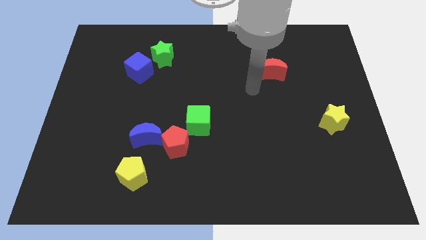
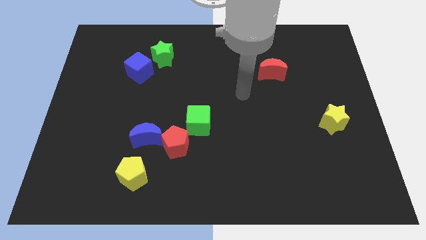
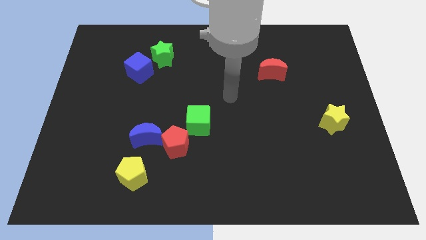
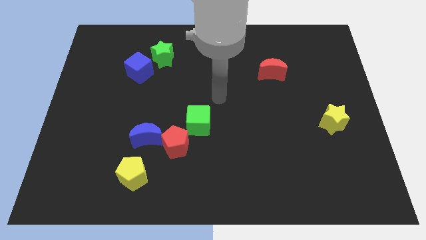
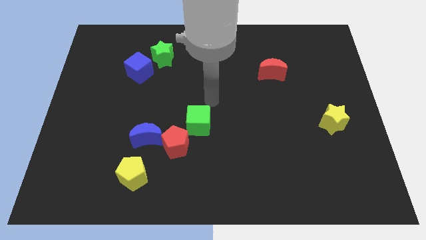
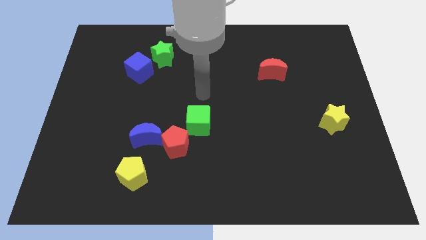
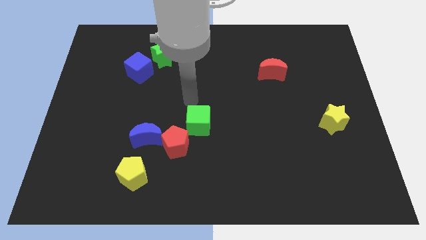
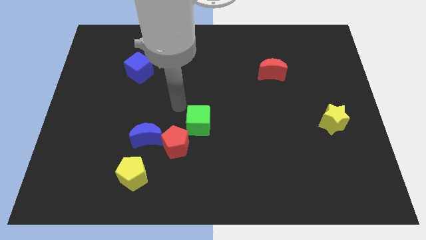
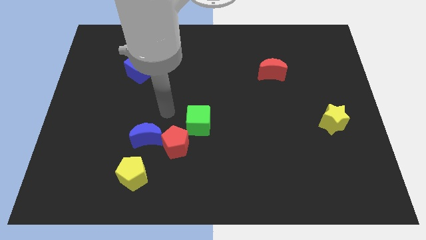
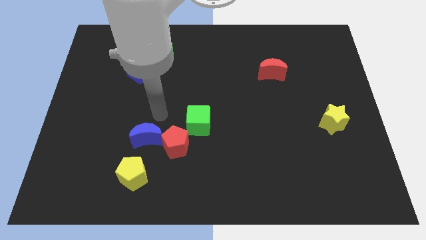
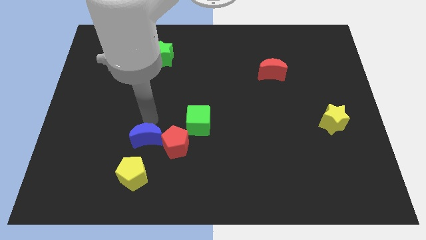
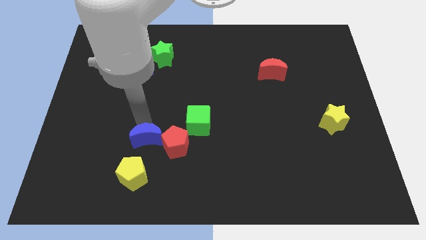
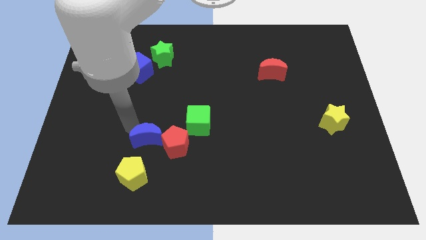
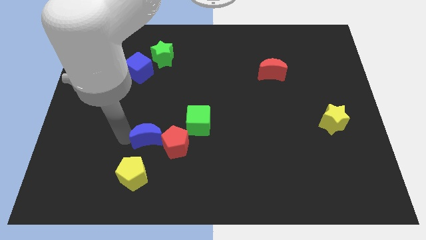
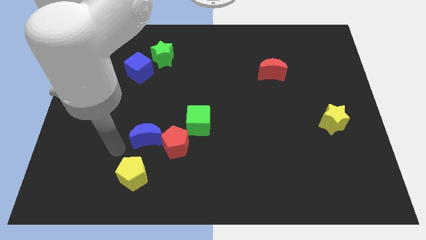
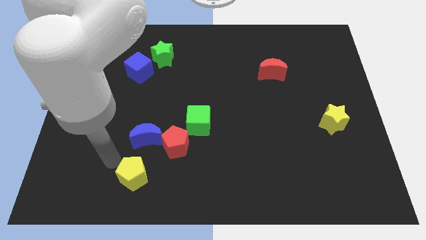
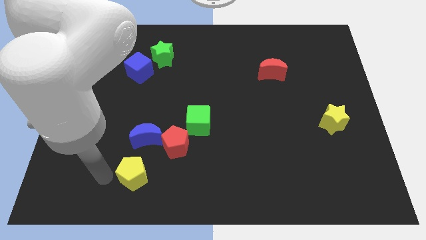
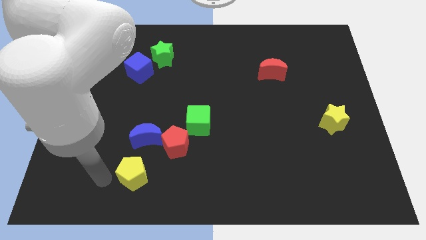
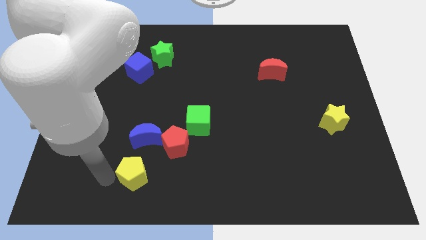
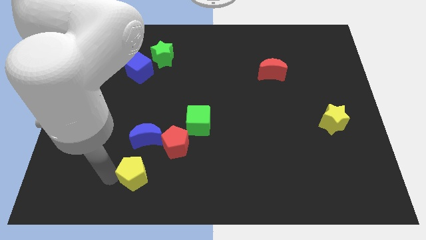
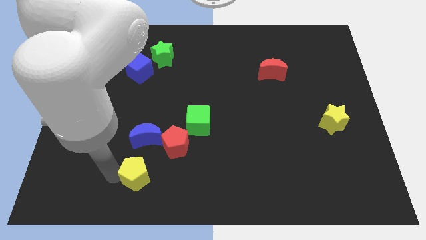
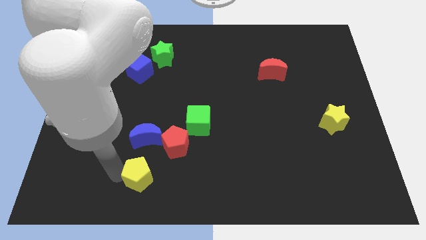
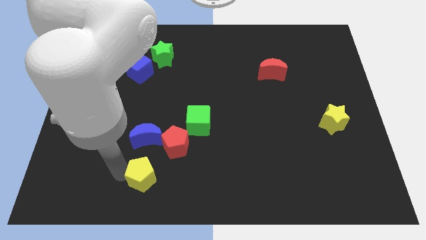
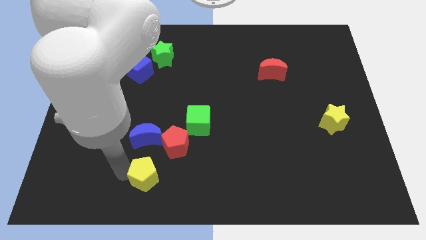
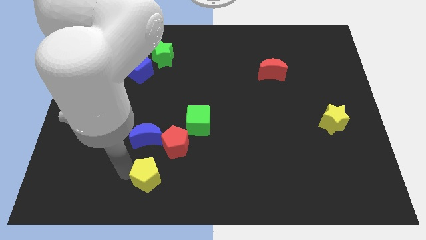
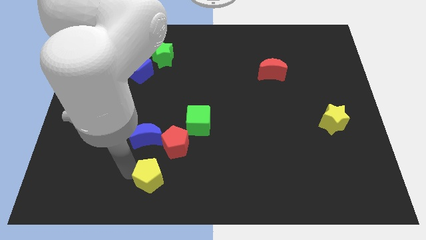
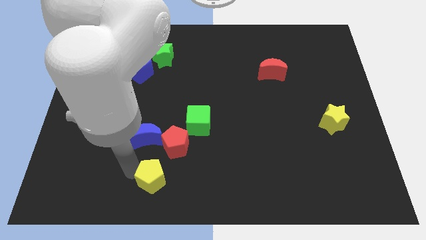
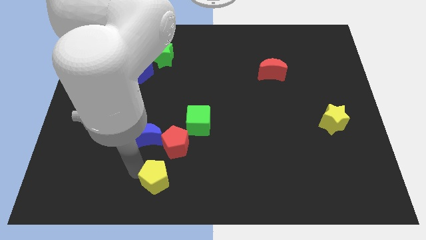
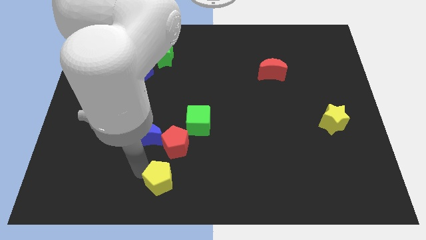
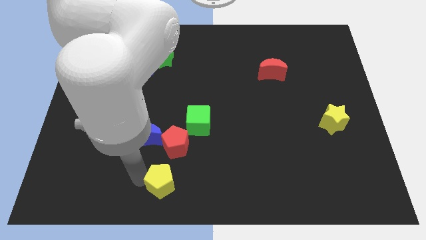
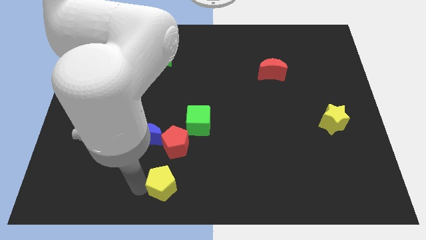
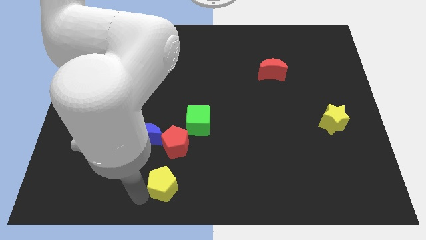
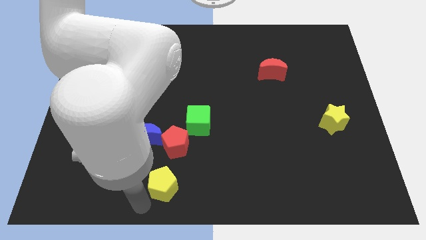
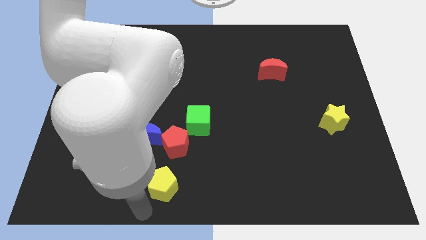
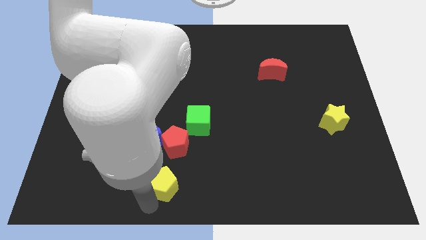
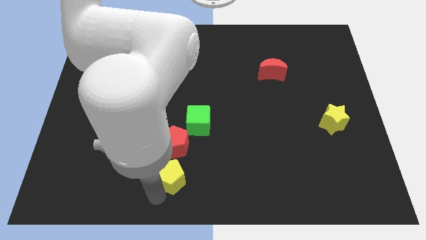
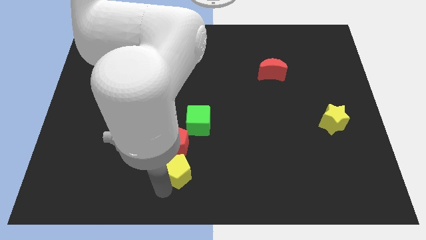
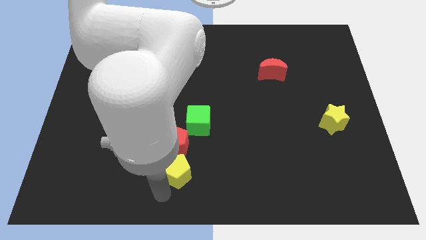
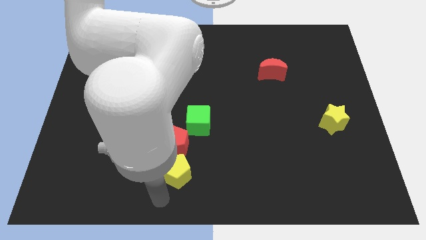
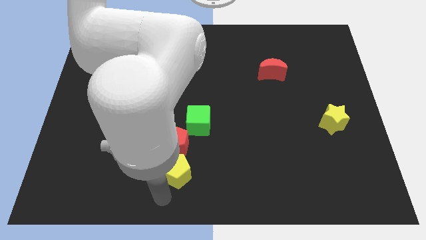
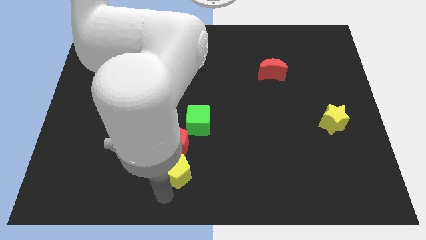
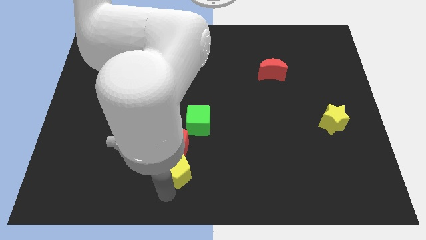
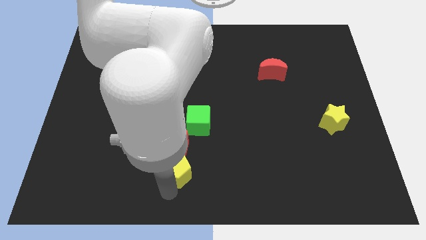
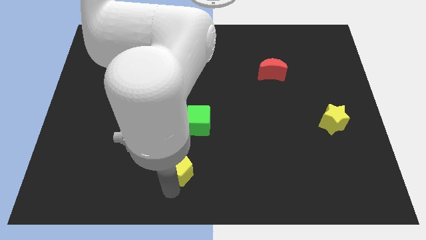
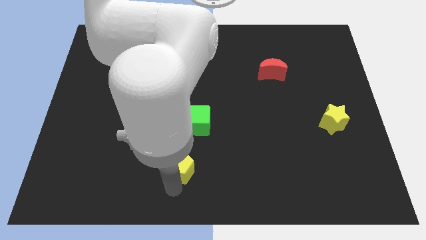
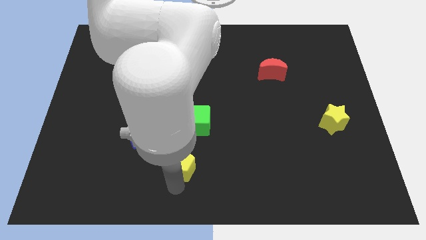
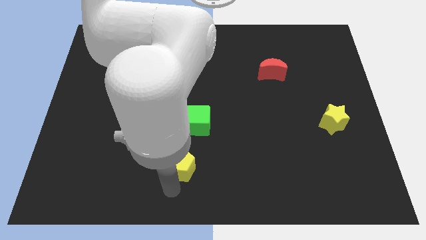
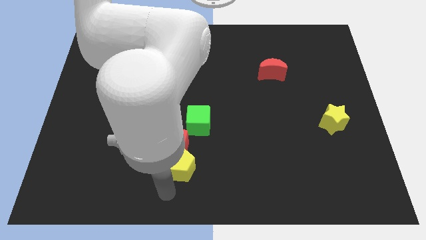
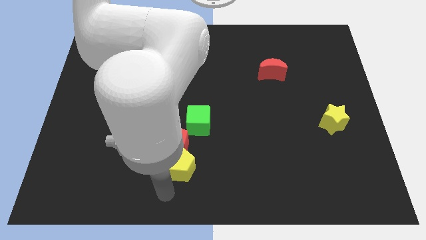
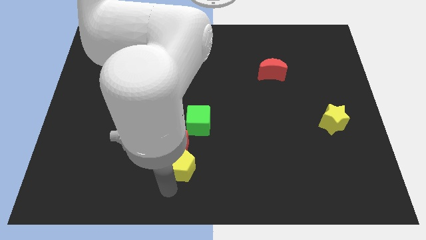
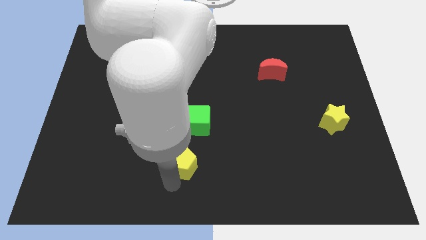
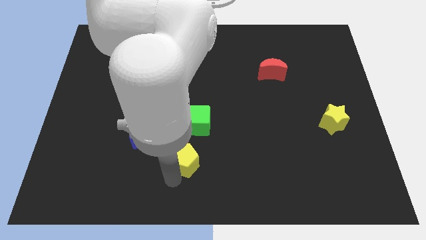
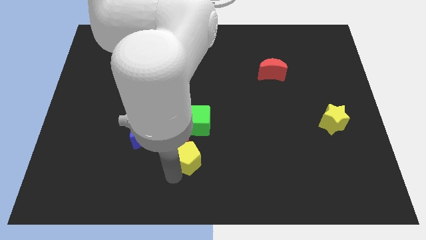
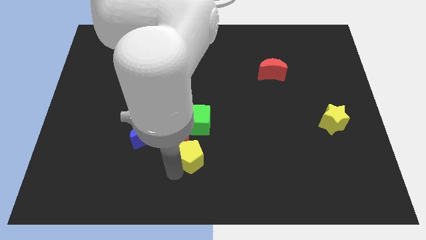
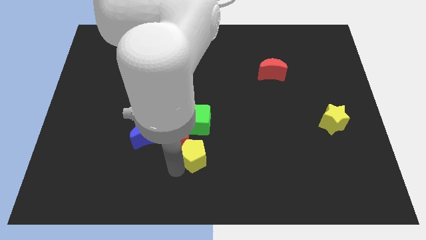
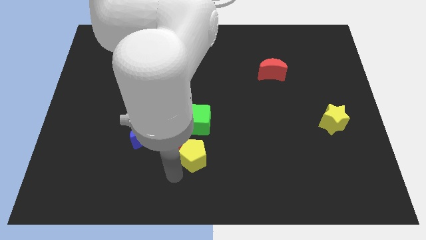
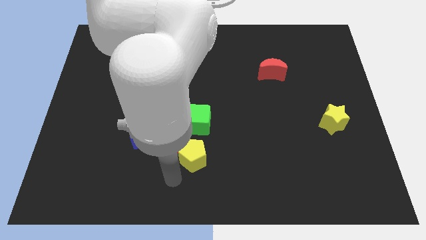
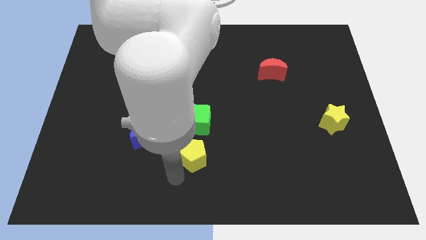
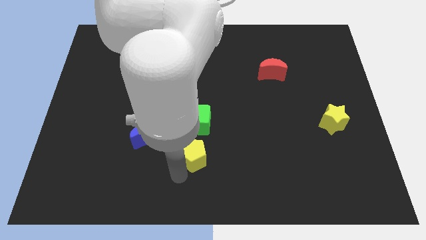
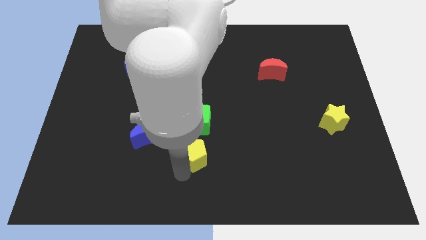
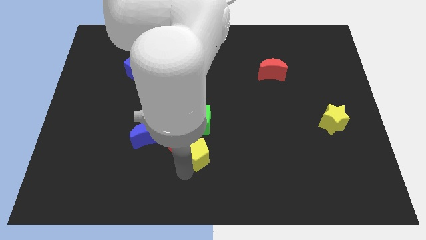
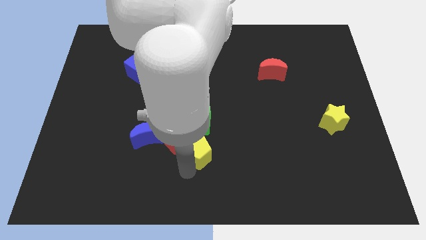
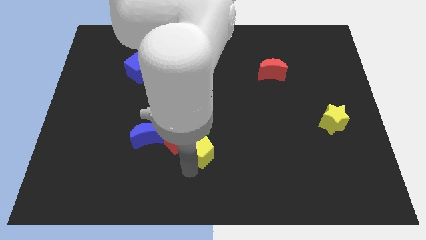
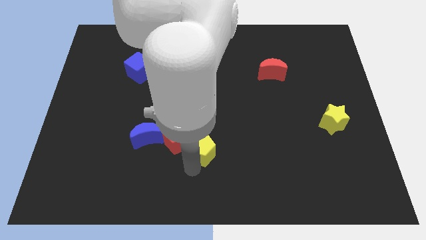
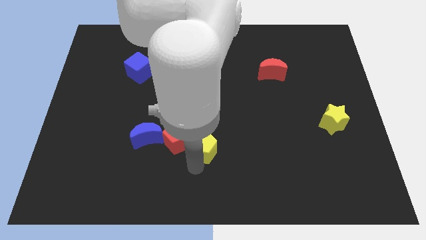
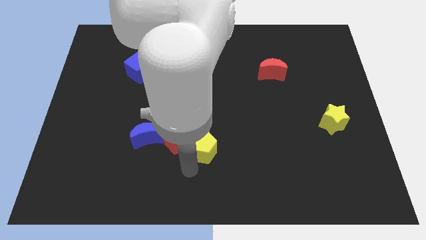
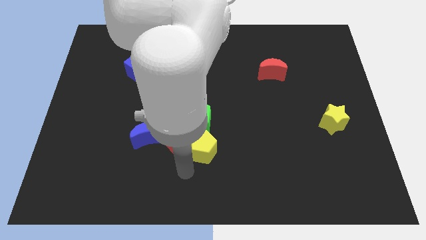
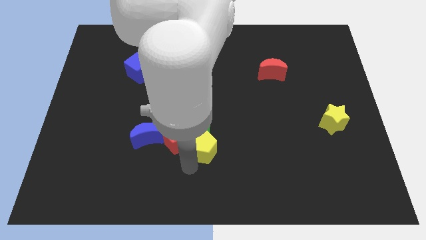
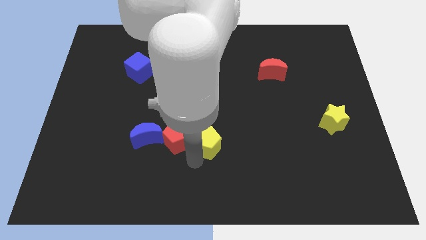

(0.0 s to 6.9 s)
move the yellow pentagon to the center of the board
